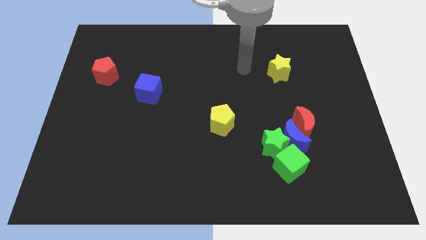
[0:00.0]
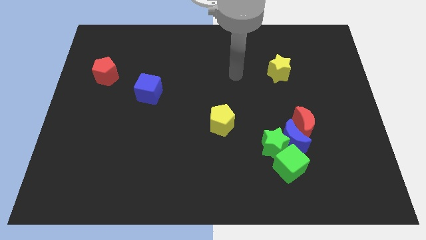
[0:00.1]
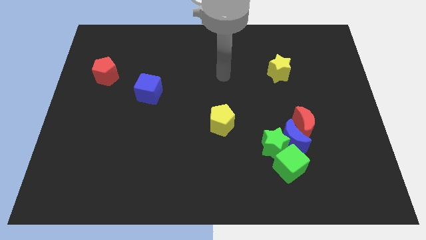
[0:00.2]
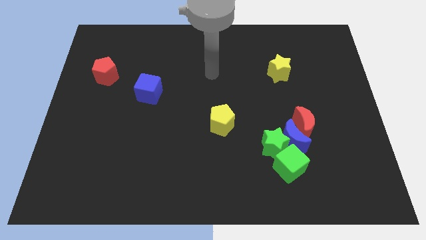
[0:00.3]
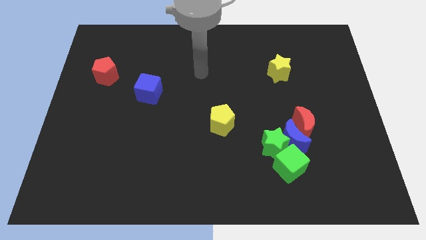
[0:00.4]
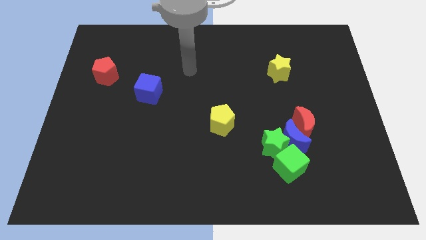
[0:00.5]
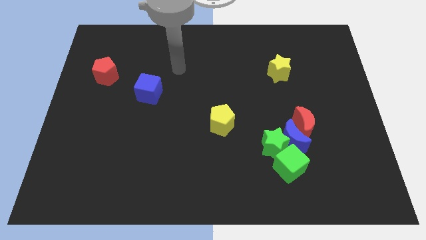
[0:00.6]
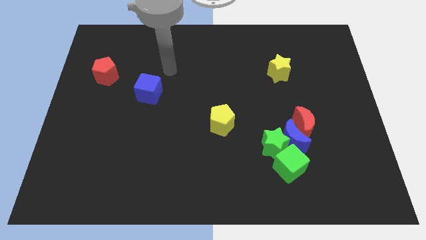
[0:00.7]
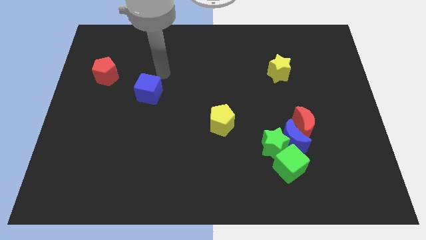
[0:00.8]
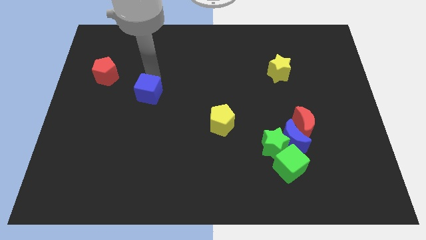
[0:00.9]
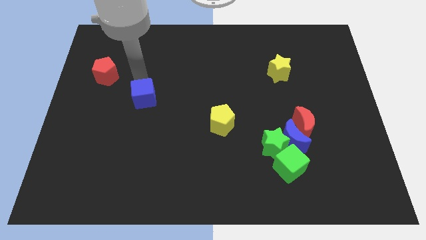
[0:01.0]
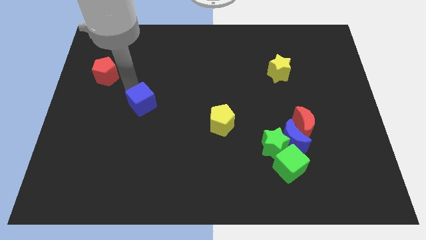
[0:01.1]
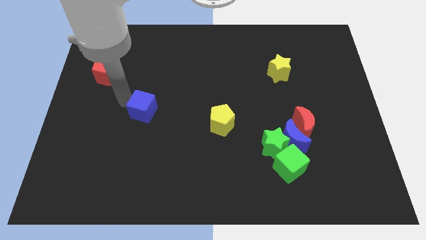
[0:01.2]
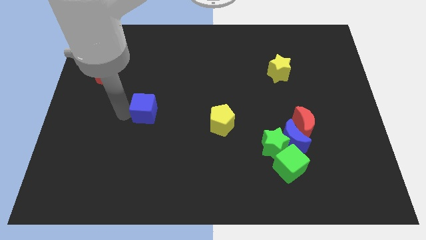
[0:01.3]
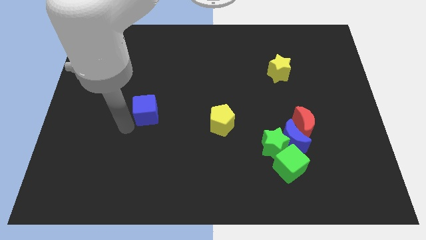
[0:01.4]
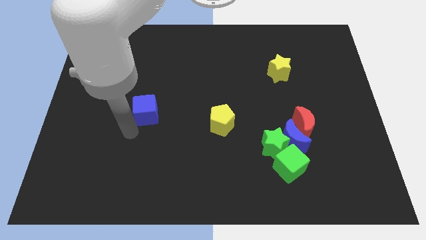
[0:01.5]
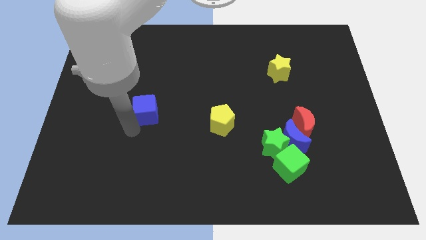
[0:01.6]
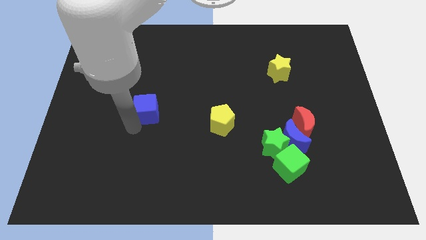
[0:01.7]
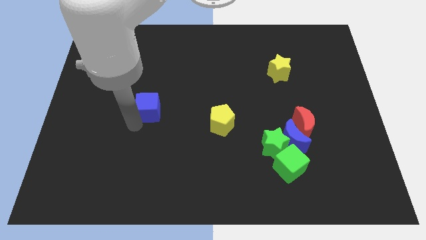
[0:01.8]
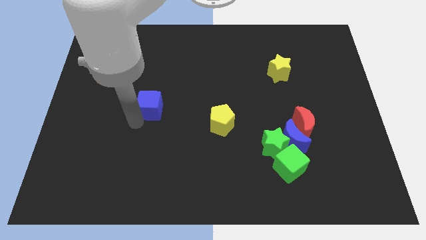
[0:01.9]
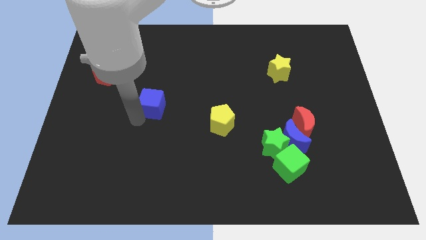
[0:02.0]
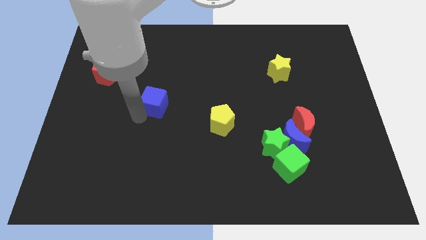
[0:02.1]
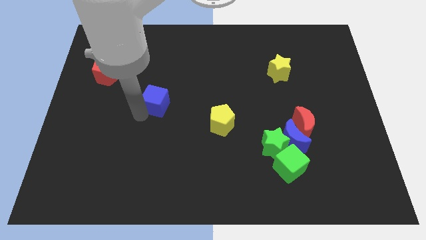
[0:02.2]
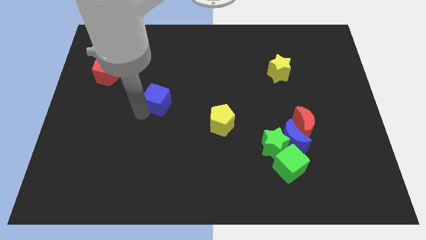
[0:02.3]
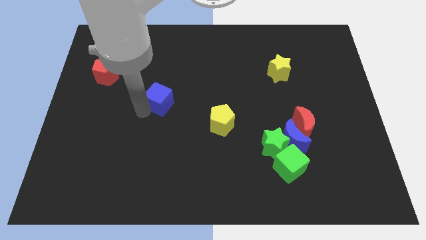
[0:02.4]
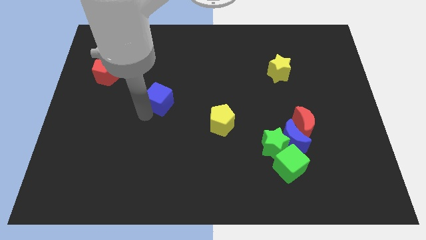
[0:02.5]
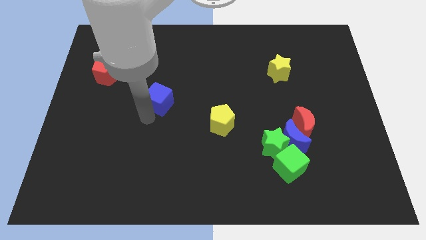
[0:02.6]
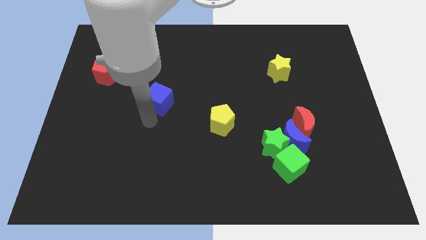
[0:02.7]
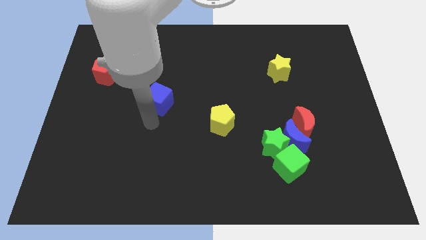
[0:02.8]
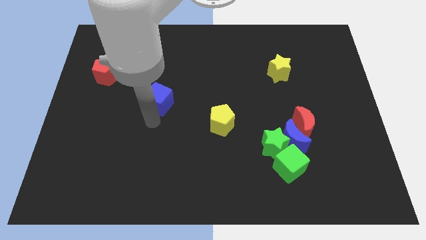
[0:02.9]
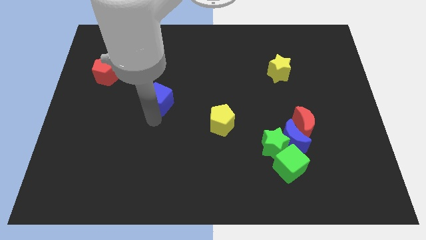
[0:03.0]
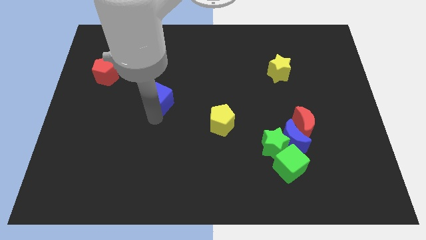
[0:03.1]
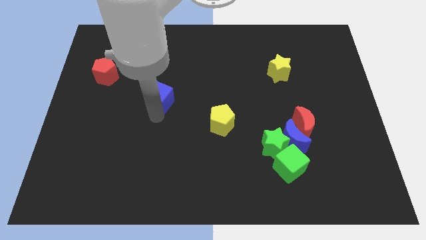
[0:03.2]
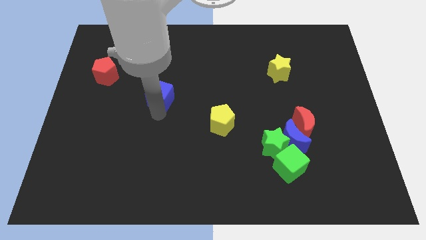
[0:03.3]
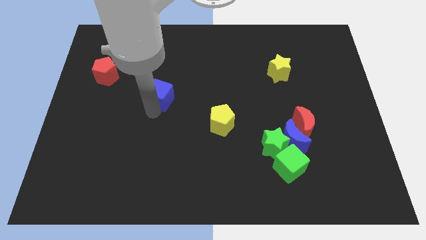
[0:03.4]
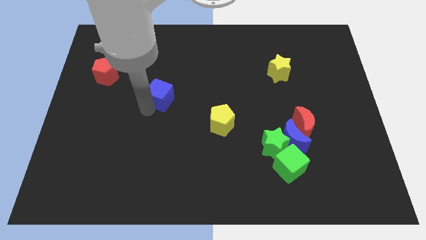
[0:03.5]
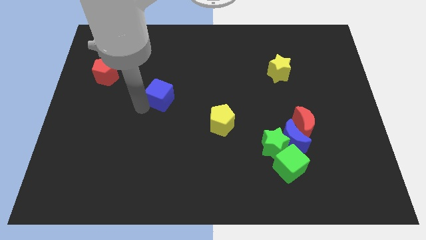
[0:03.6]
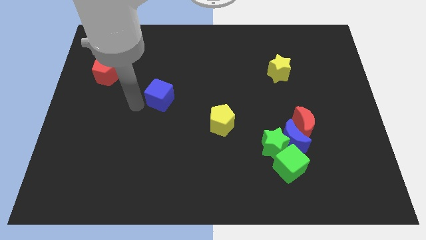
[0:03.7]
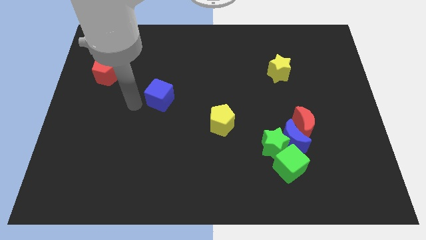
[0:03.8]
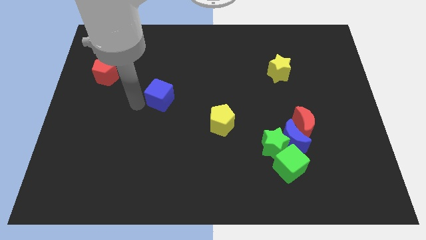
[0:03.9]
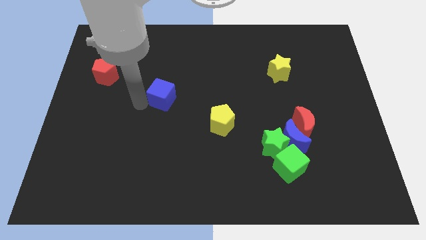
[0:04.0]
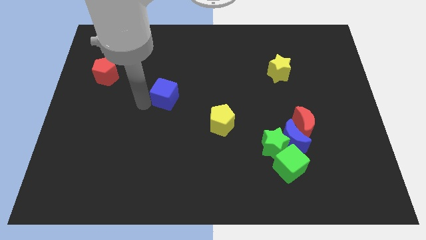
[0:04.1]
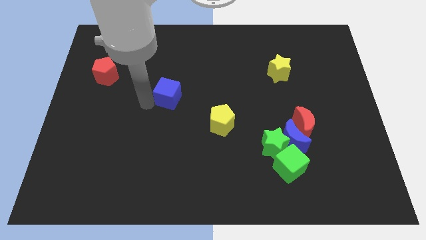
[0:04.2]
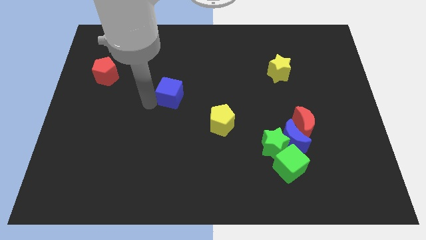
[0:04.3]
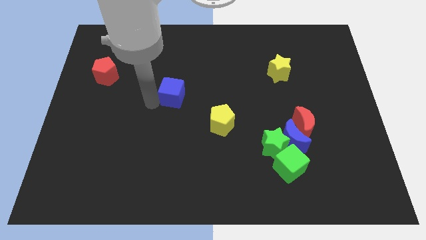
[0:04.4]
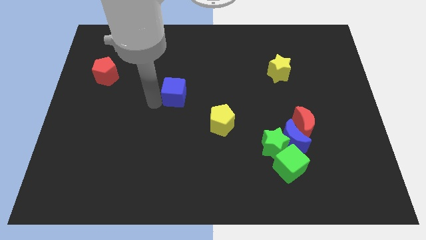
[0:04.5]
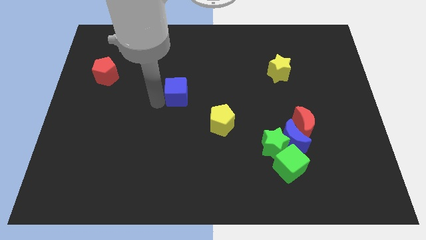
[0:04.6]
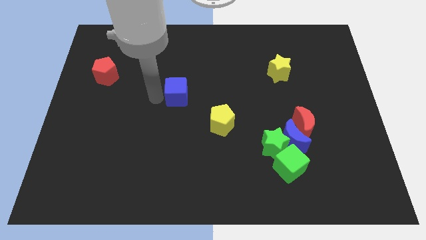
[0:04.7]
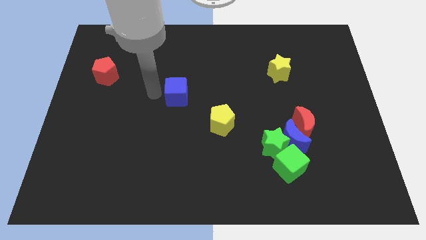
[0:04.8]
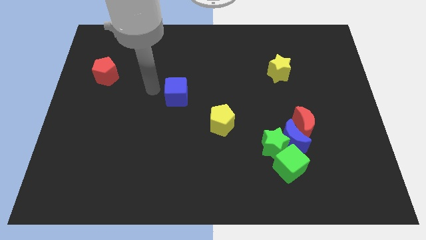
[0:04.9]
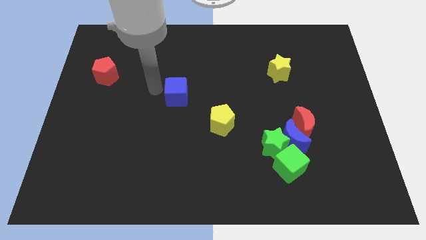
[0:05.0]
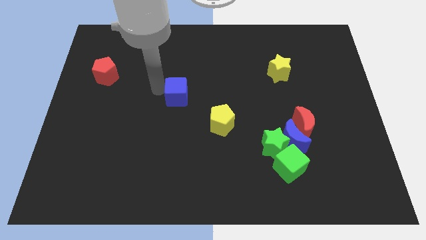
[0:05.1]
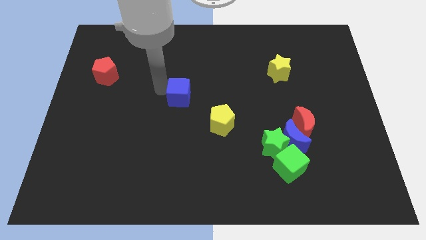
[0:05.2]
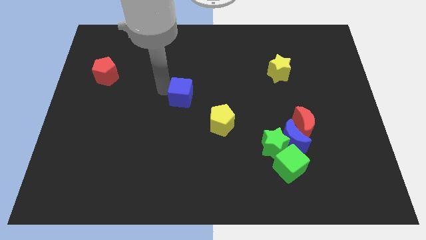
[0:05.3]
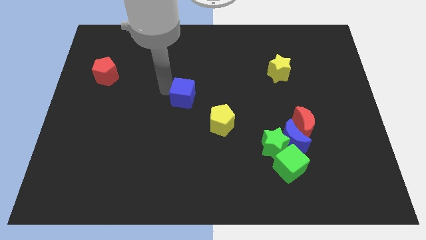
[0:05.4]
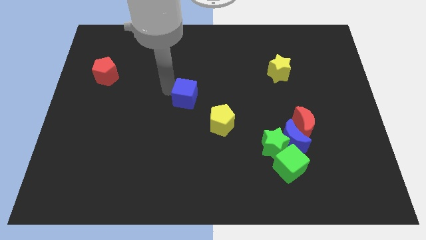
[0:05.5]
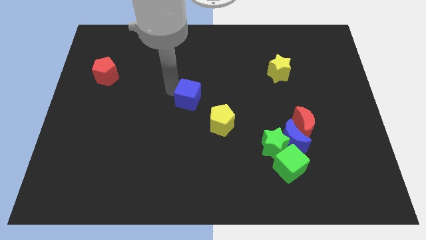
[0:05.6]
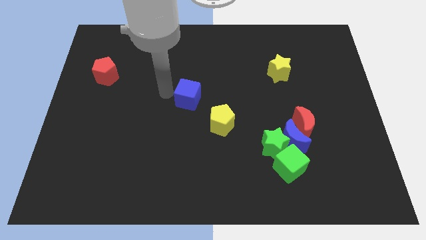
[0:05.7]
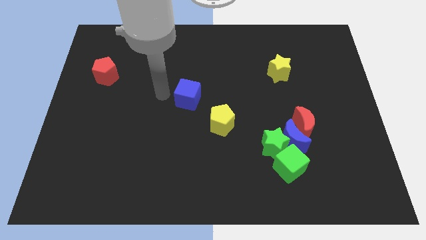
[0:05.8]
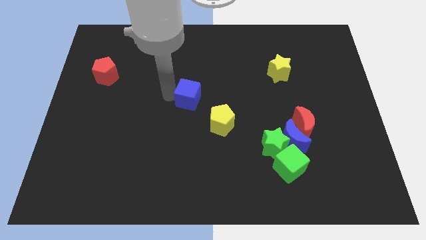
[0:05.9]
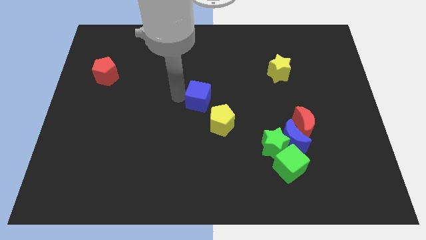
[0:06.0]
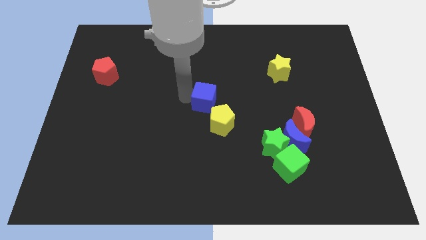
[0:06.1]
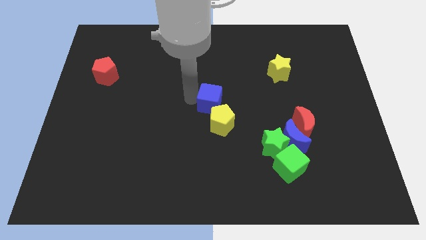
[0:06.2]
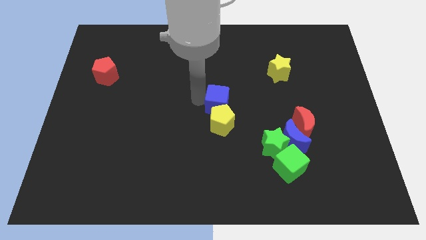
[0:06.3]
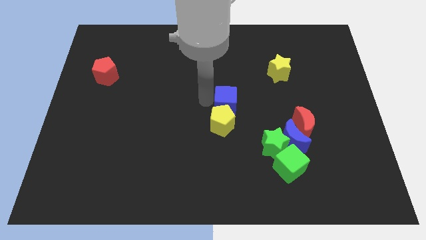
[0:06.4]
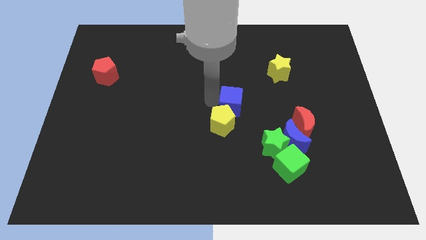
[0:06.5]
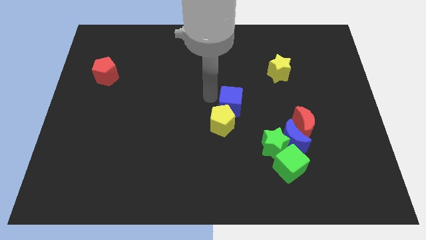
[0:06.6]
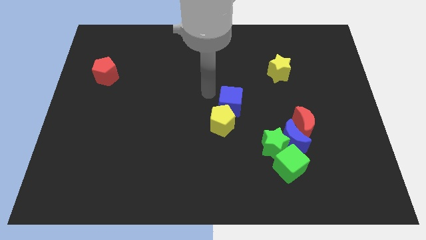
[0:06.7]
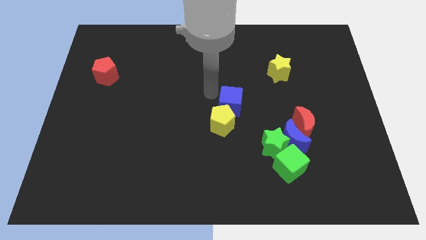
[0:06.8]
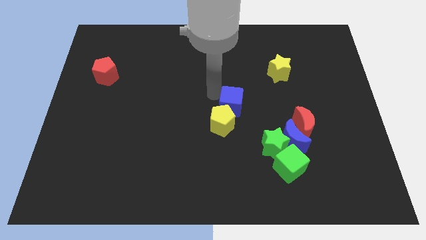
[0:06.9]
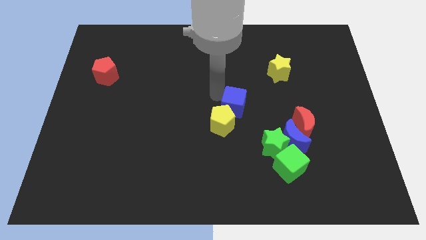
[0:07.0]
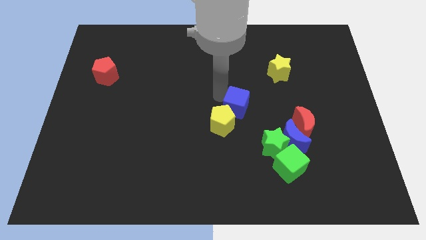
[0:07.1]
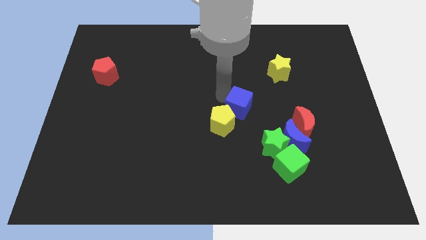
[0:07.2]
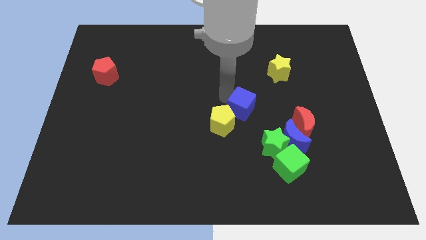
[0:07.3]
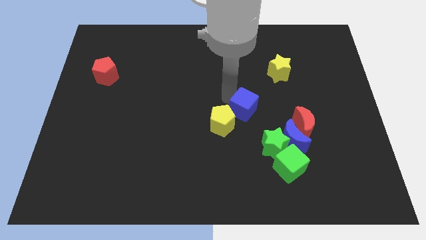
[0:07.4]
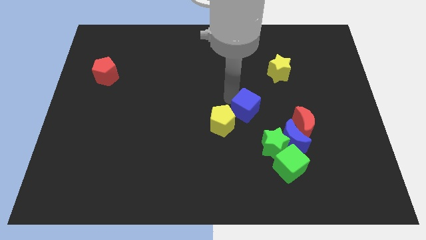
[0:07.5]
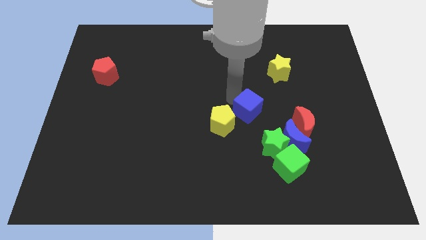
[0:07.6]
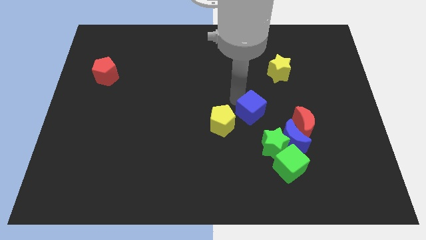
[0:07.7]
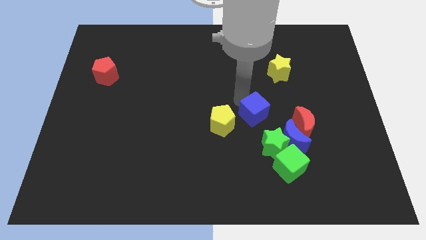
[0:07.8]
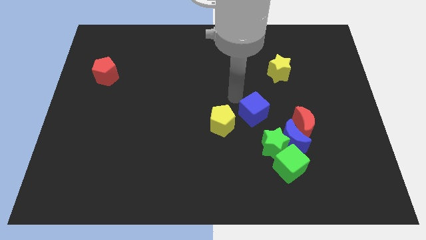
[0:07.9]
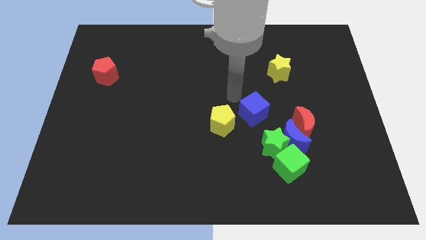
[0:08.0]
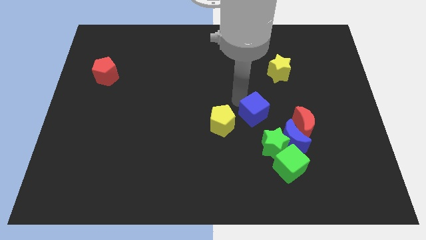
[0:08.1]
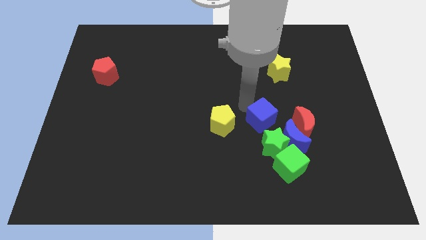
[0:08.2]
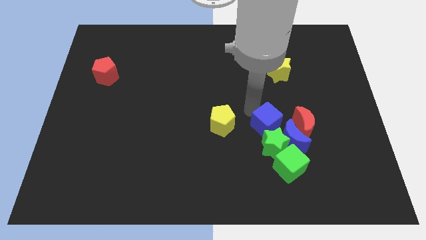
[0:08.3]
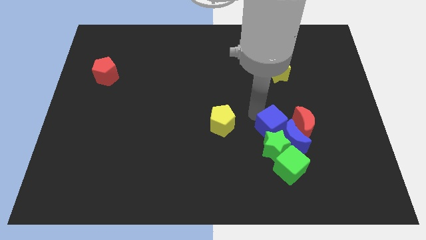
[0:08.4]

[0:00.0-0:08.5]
move the blue cube close to the blue moon

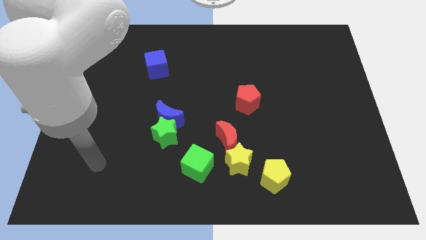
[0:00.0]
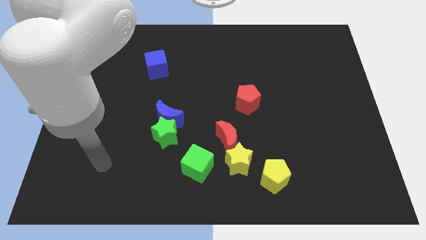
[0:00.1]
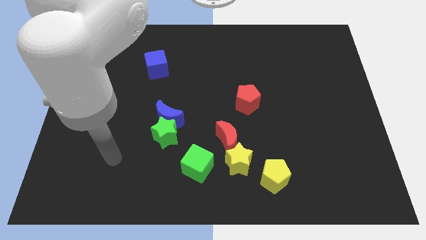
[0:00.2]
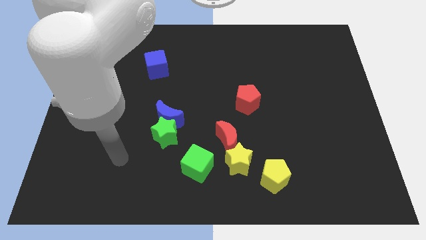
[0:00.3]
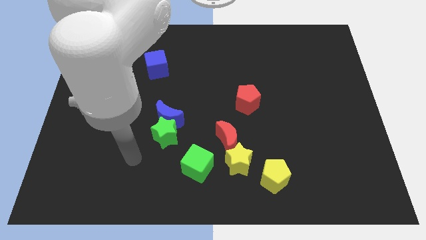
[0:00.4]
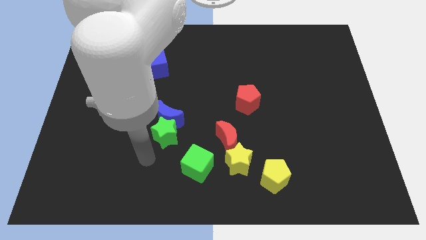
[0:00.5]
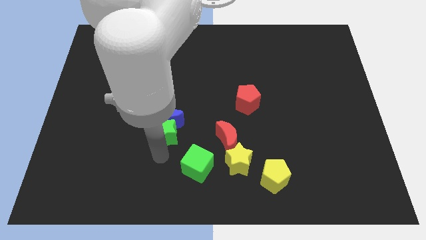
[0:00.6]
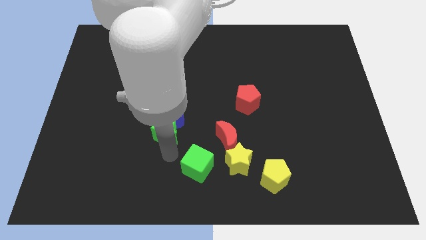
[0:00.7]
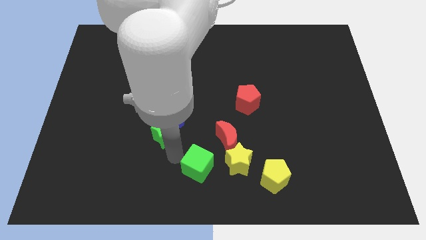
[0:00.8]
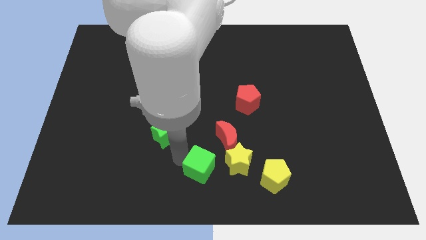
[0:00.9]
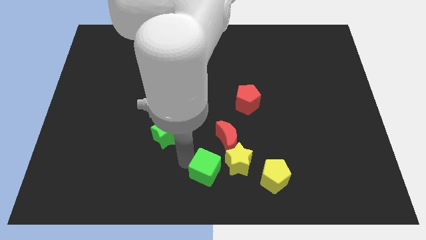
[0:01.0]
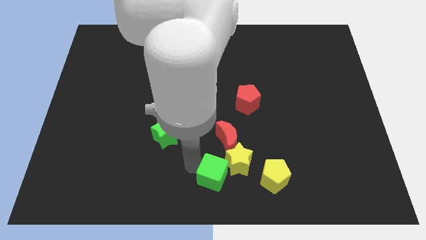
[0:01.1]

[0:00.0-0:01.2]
put the green cube to the yellow star
